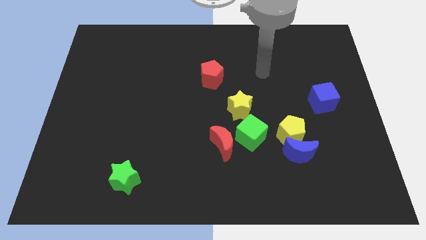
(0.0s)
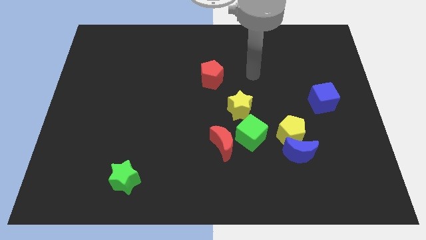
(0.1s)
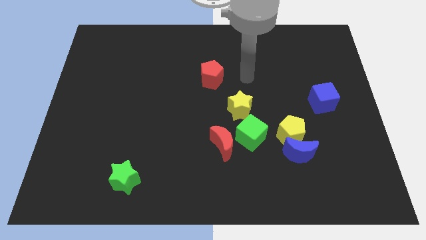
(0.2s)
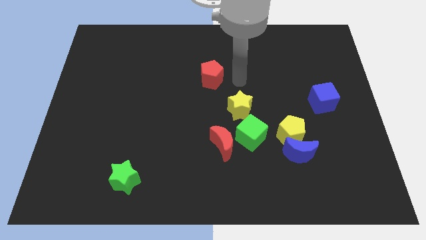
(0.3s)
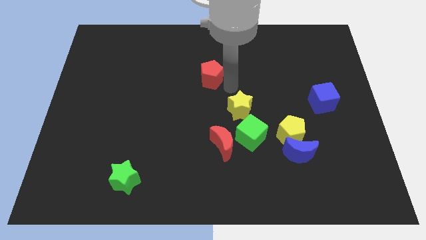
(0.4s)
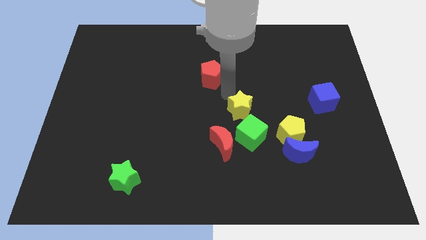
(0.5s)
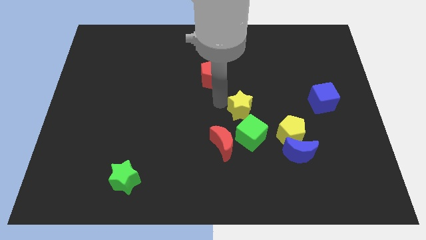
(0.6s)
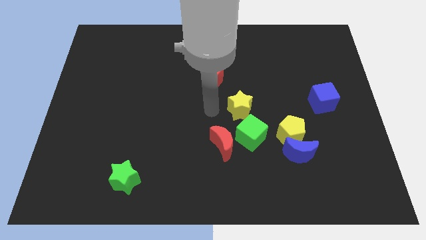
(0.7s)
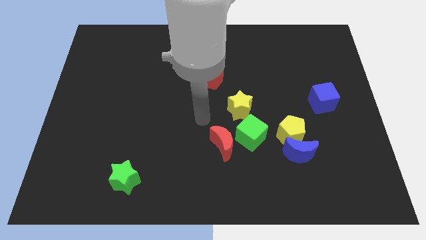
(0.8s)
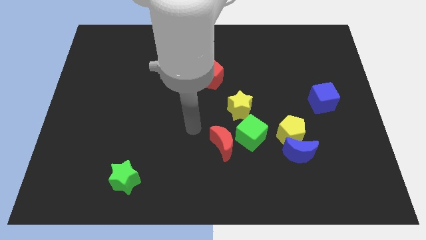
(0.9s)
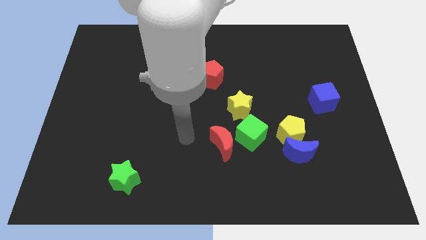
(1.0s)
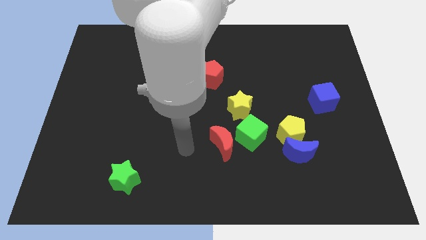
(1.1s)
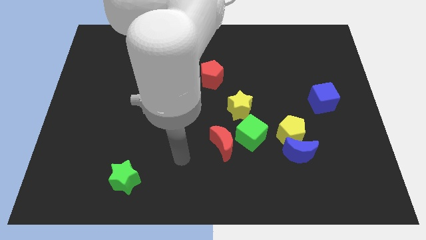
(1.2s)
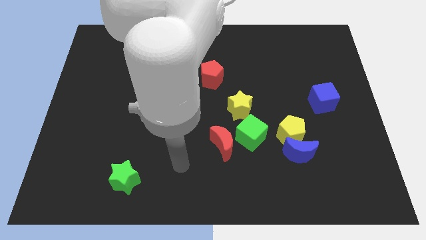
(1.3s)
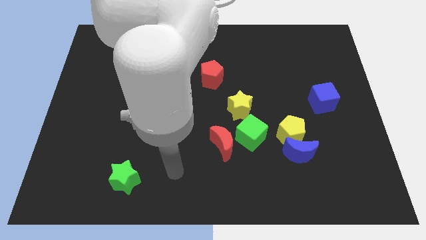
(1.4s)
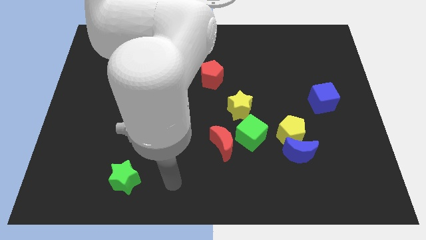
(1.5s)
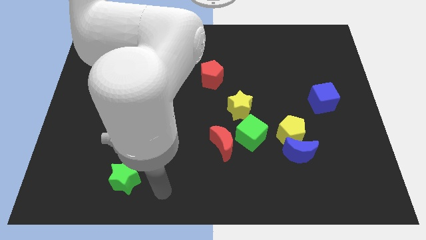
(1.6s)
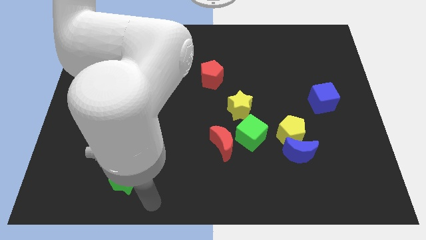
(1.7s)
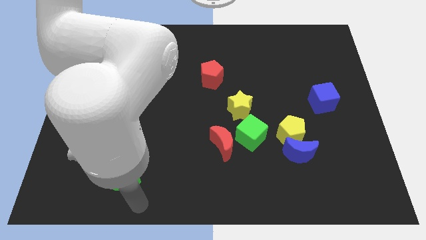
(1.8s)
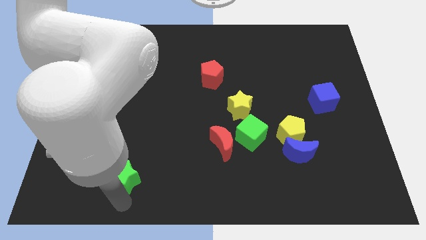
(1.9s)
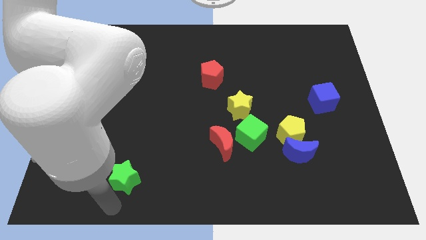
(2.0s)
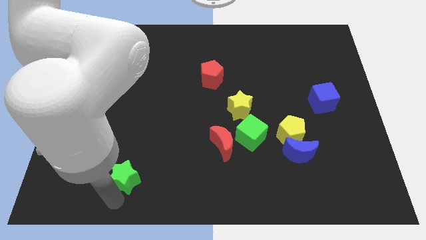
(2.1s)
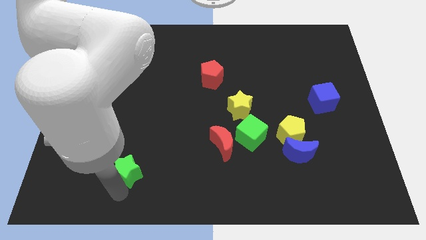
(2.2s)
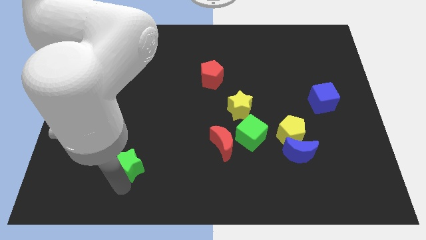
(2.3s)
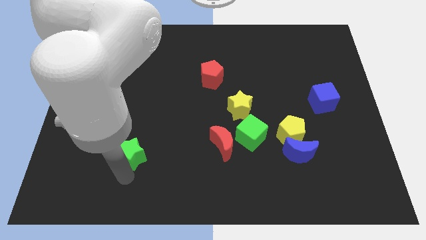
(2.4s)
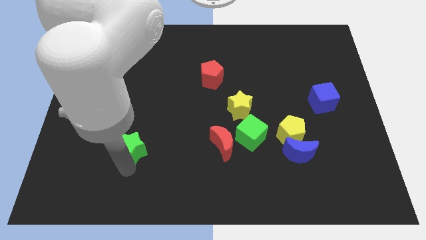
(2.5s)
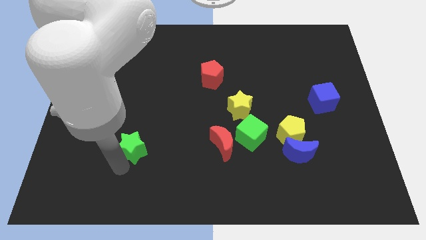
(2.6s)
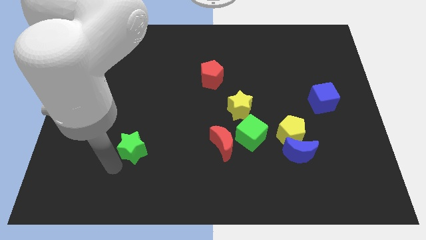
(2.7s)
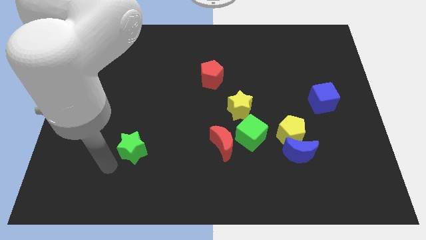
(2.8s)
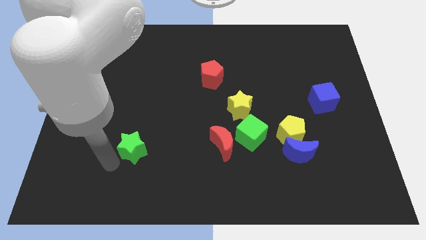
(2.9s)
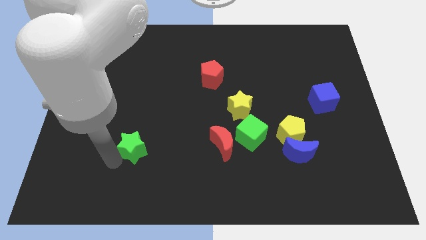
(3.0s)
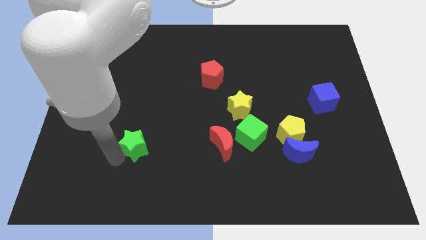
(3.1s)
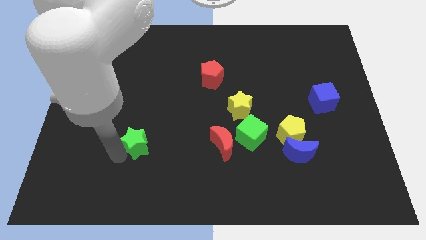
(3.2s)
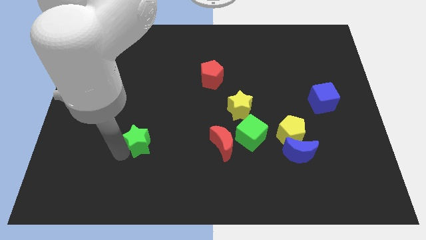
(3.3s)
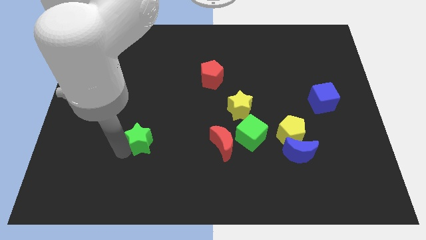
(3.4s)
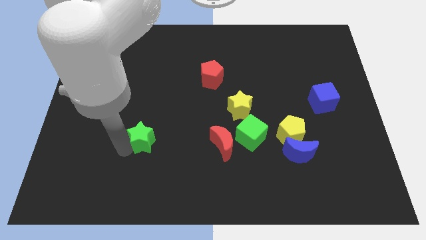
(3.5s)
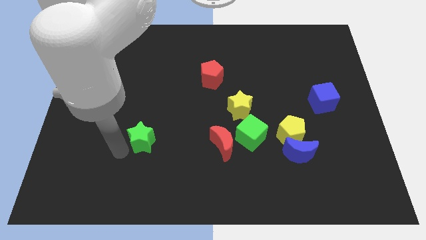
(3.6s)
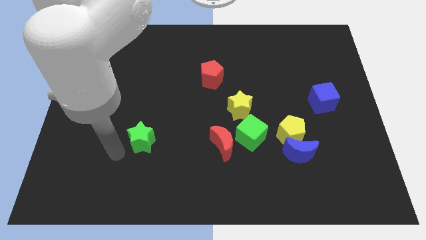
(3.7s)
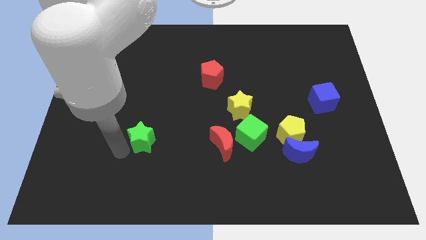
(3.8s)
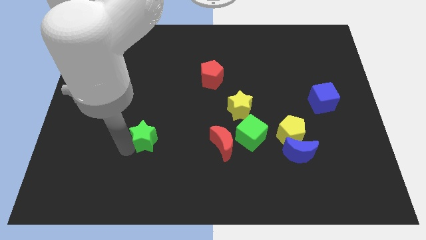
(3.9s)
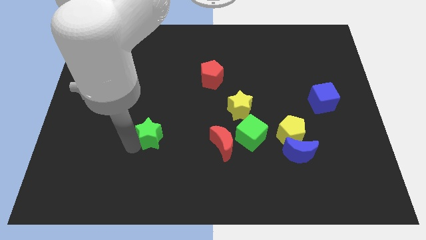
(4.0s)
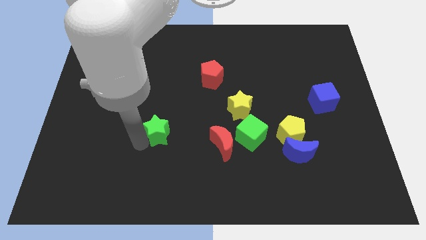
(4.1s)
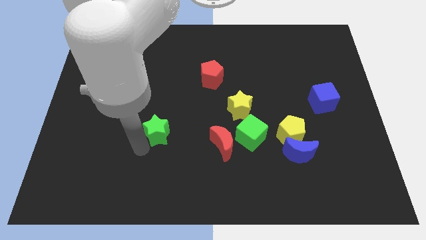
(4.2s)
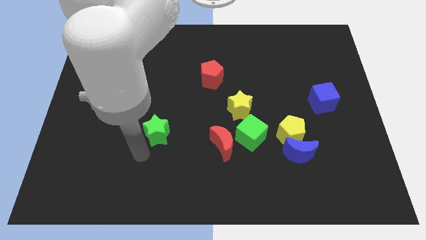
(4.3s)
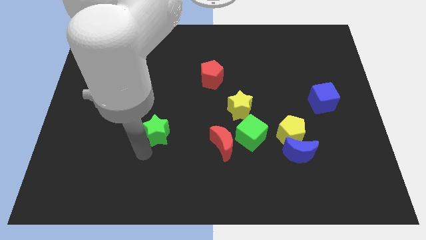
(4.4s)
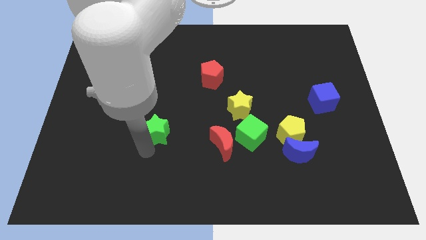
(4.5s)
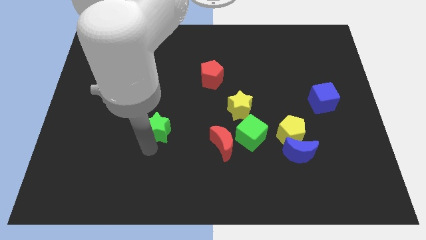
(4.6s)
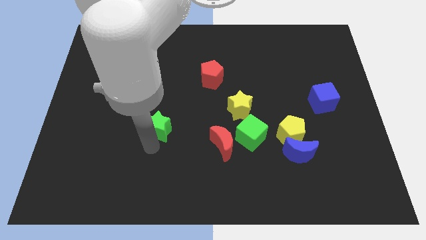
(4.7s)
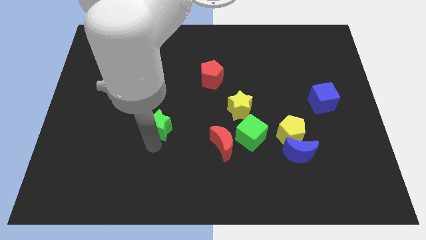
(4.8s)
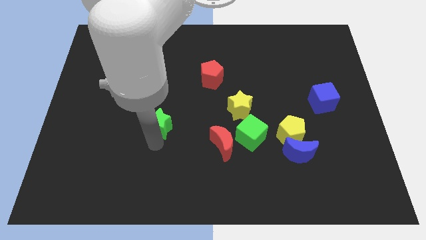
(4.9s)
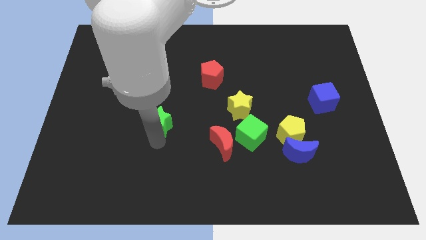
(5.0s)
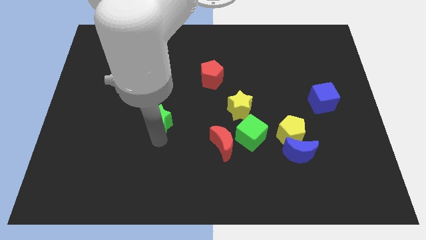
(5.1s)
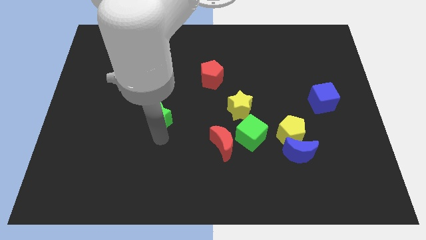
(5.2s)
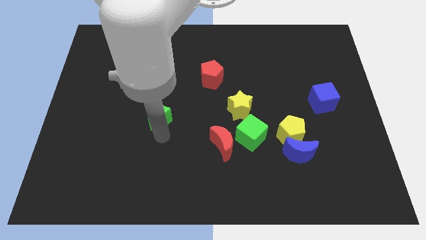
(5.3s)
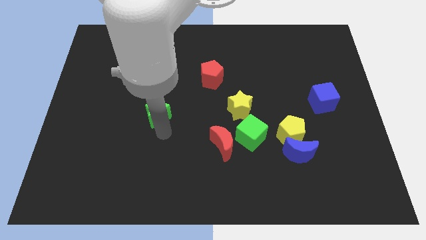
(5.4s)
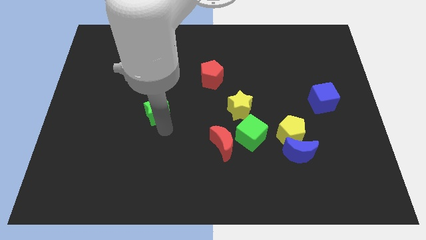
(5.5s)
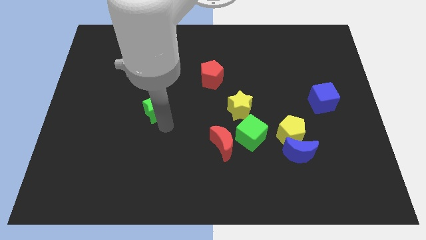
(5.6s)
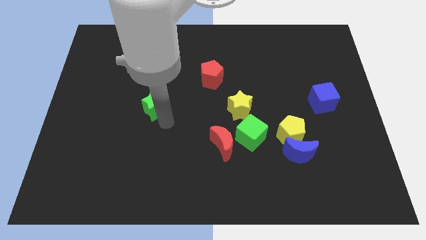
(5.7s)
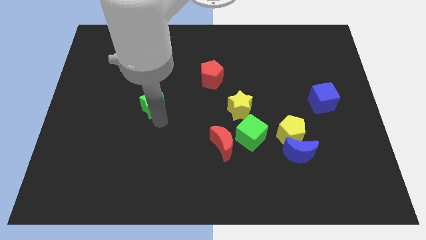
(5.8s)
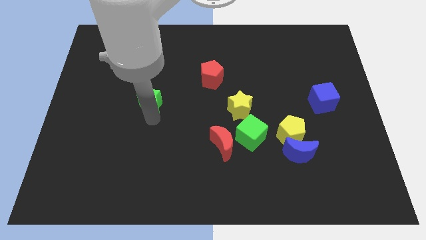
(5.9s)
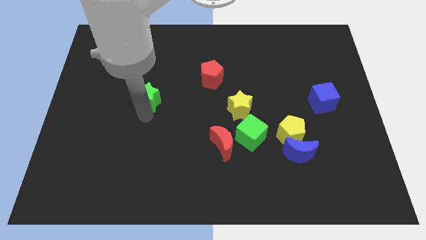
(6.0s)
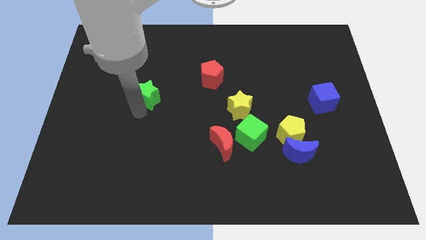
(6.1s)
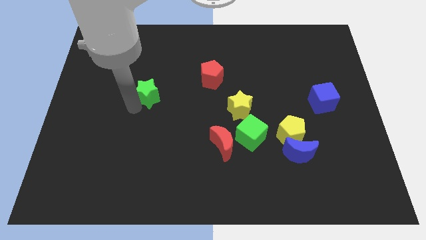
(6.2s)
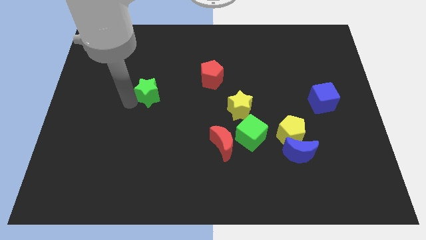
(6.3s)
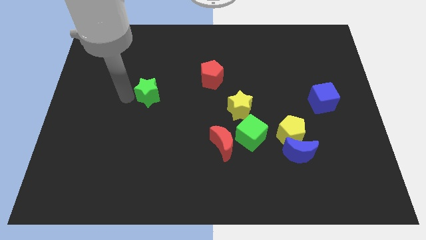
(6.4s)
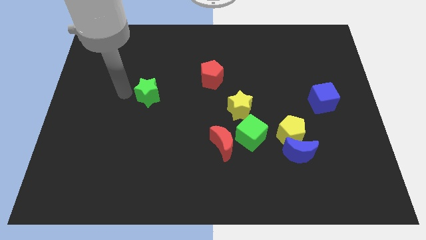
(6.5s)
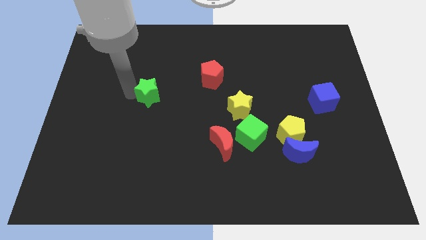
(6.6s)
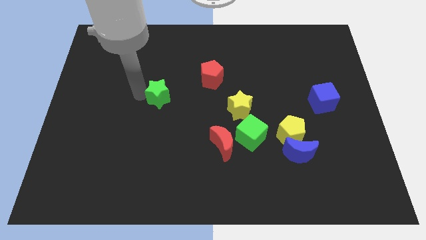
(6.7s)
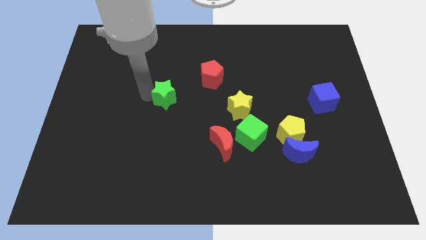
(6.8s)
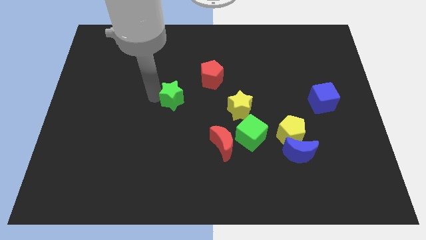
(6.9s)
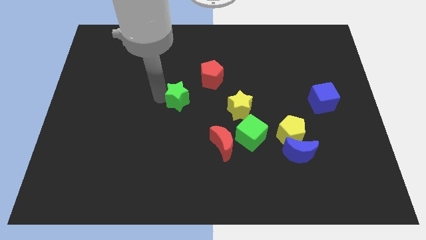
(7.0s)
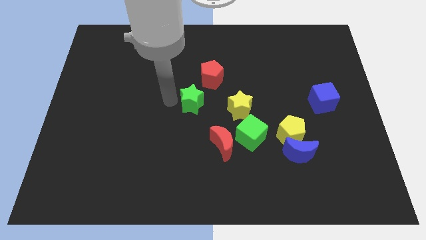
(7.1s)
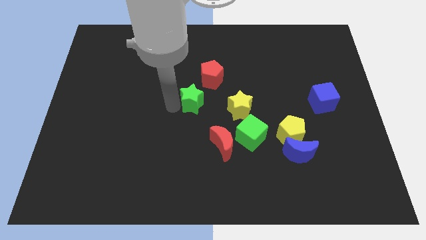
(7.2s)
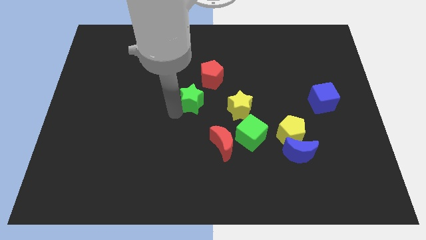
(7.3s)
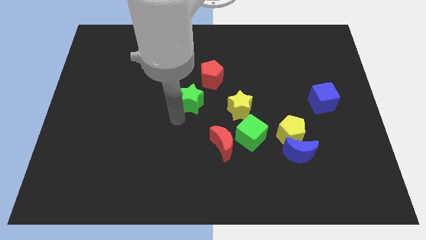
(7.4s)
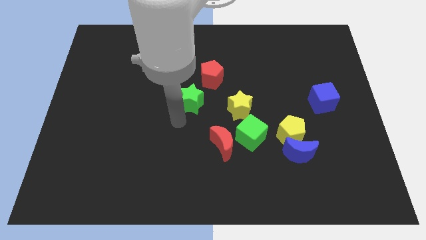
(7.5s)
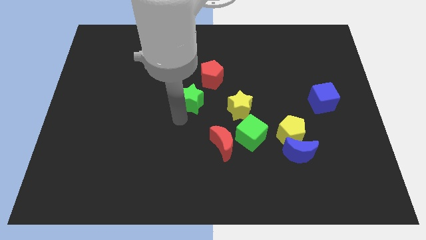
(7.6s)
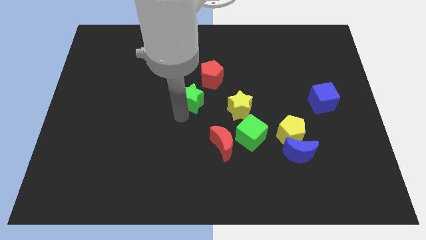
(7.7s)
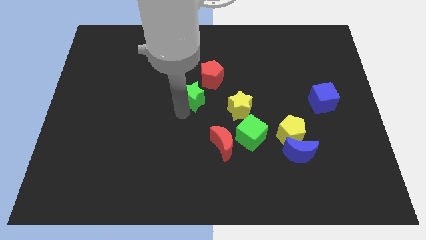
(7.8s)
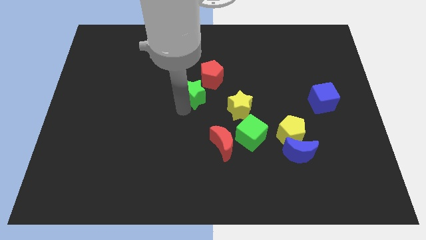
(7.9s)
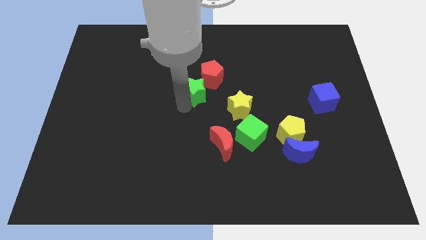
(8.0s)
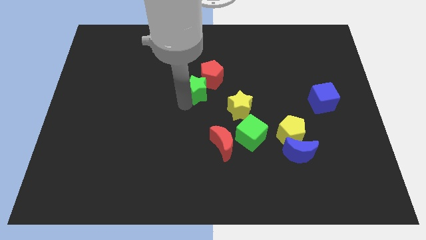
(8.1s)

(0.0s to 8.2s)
slide the green star to the red pentagon
